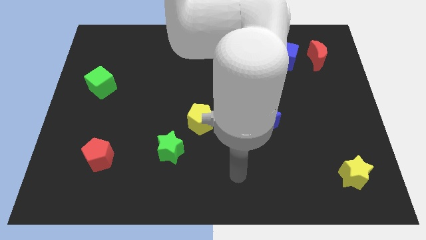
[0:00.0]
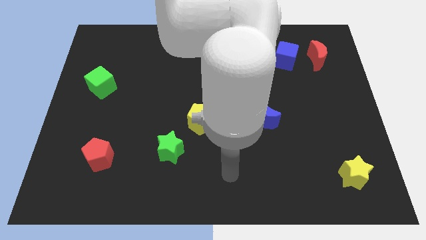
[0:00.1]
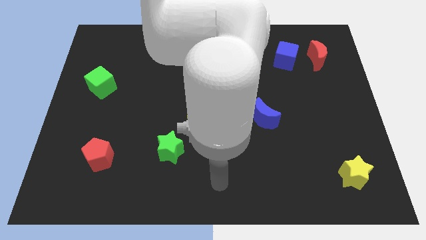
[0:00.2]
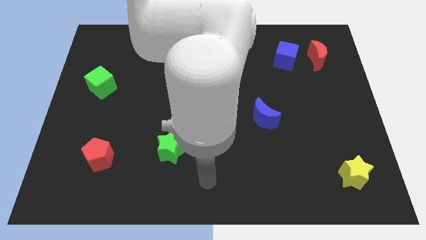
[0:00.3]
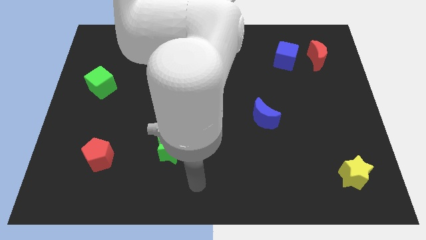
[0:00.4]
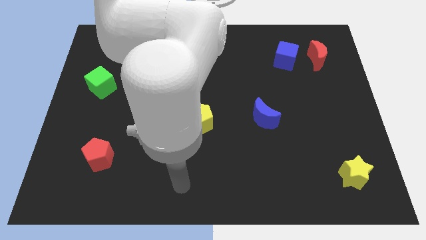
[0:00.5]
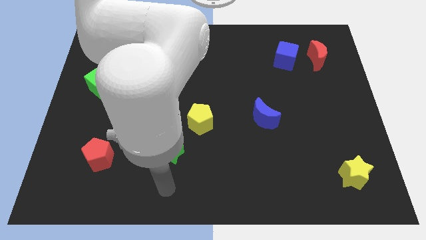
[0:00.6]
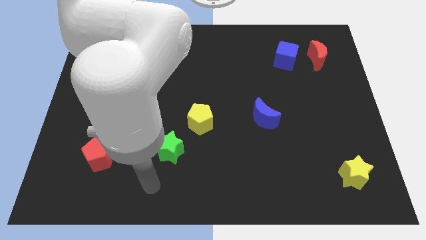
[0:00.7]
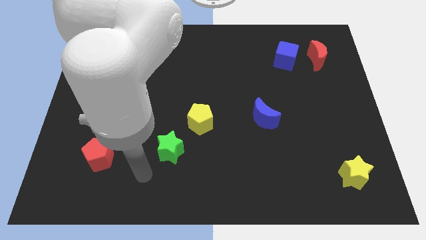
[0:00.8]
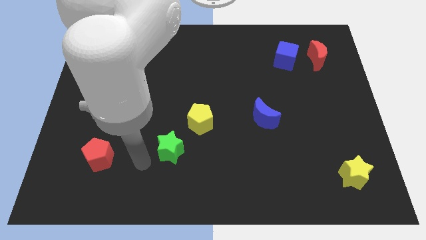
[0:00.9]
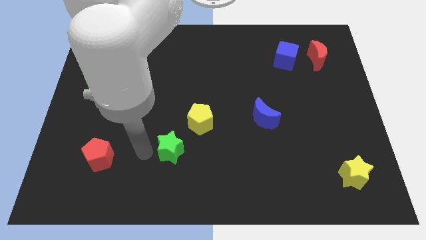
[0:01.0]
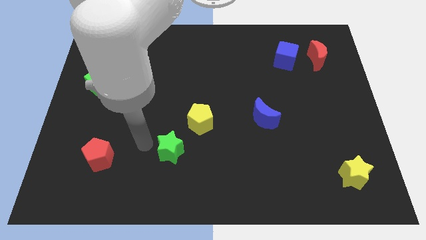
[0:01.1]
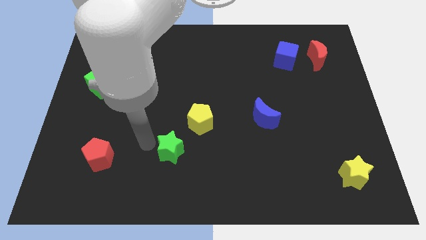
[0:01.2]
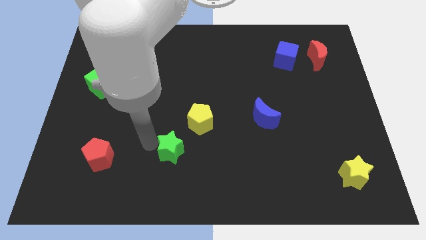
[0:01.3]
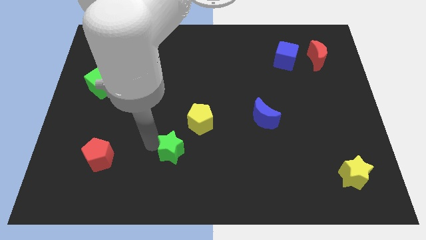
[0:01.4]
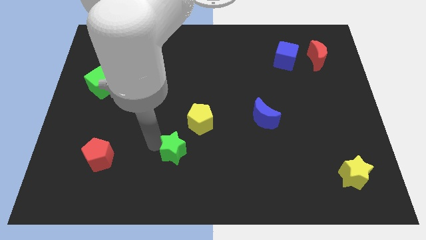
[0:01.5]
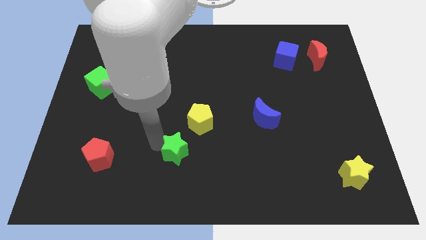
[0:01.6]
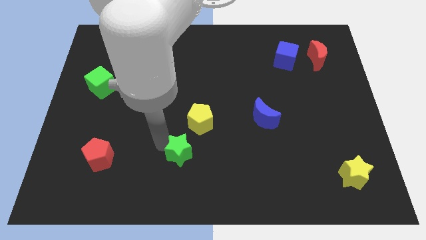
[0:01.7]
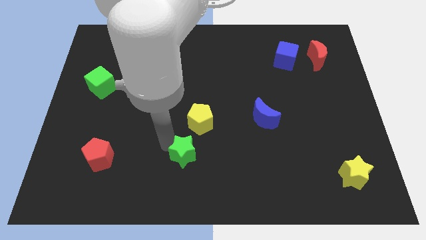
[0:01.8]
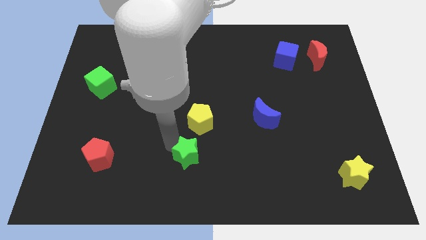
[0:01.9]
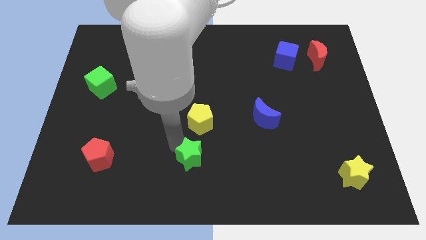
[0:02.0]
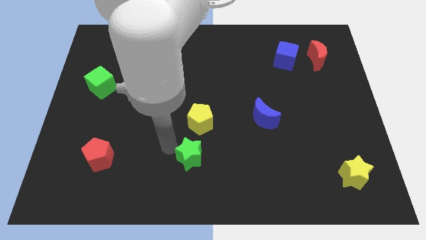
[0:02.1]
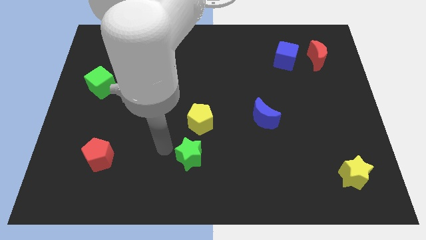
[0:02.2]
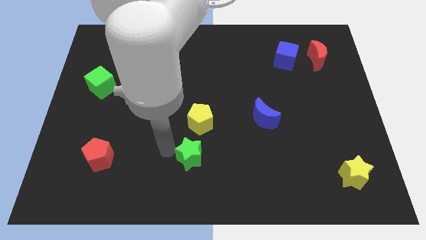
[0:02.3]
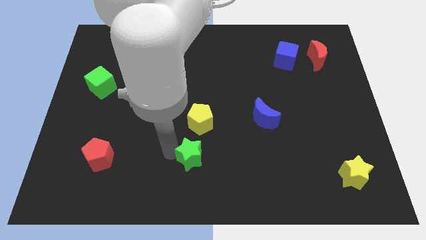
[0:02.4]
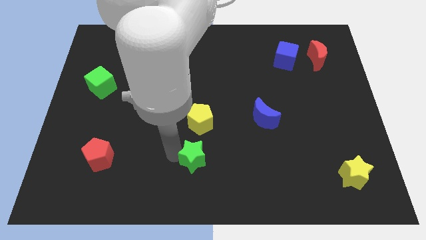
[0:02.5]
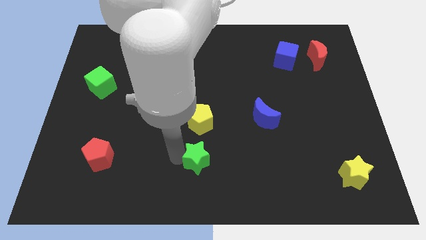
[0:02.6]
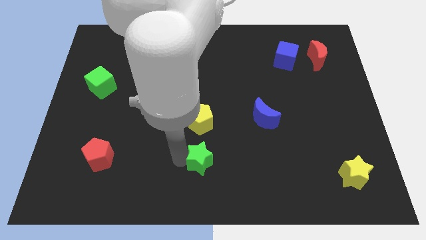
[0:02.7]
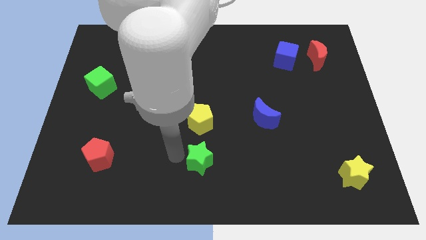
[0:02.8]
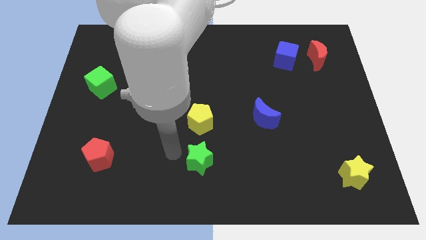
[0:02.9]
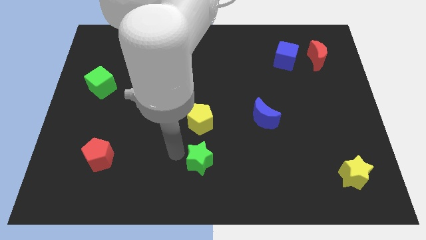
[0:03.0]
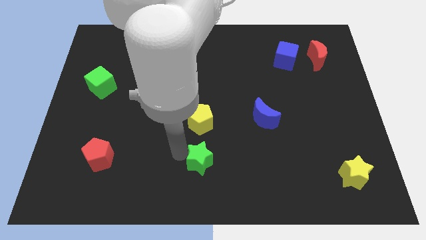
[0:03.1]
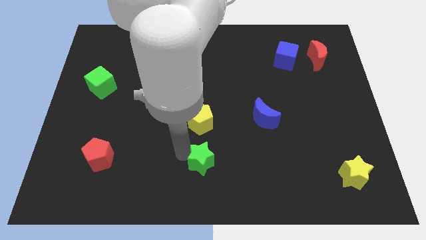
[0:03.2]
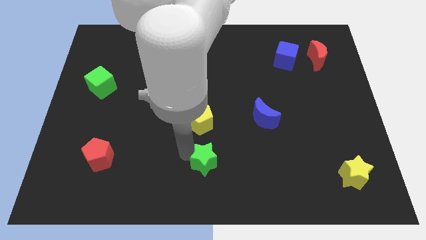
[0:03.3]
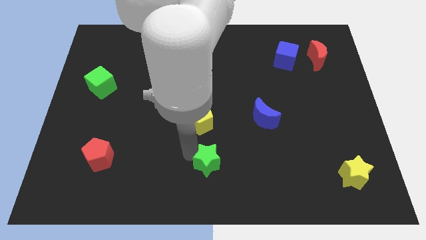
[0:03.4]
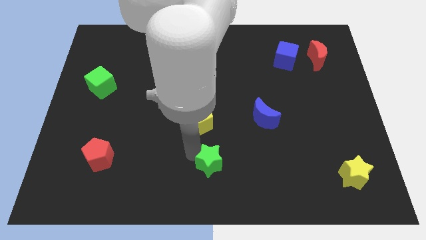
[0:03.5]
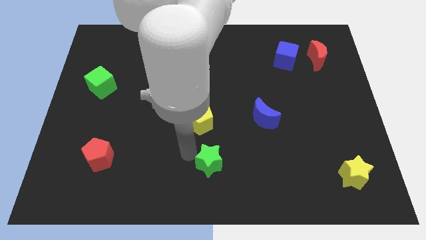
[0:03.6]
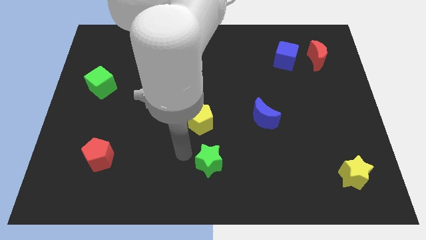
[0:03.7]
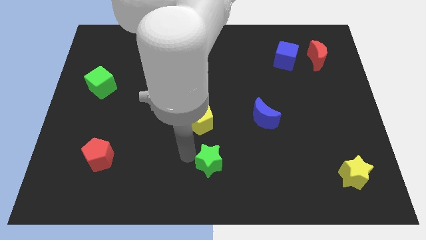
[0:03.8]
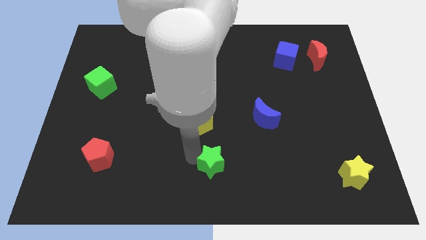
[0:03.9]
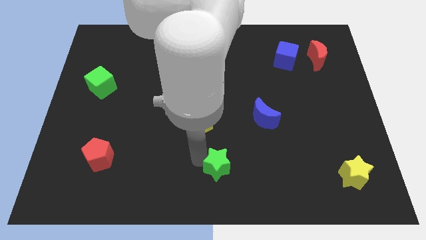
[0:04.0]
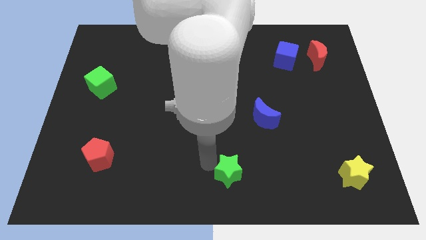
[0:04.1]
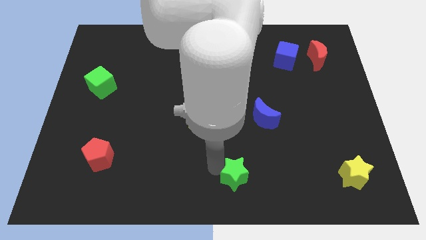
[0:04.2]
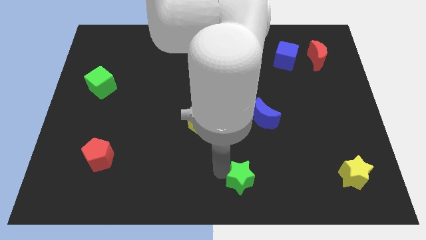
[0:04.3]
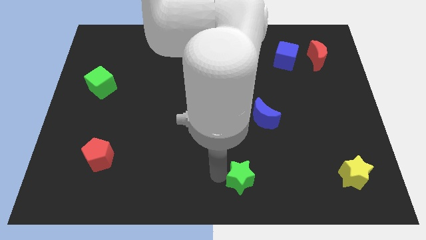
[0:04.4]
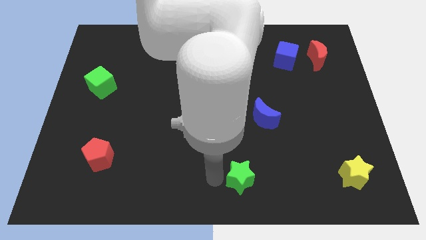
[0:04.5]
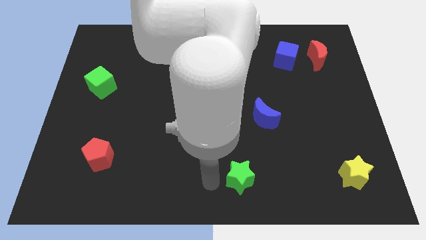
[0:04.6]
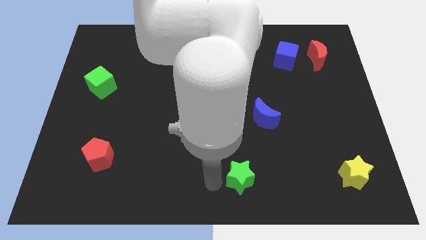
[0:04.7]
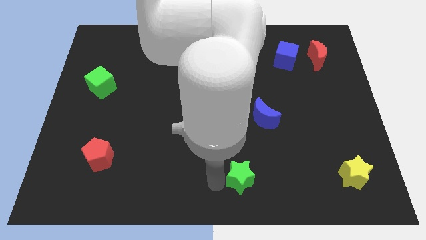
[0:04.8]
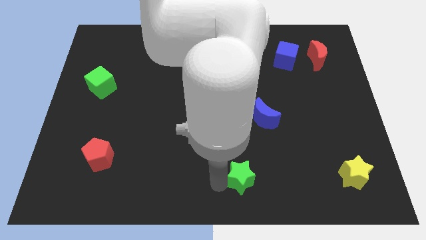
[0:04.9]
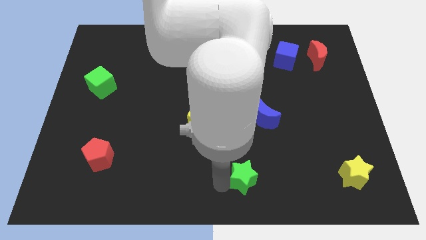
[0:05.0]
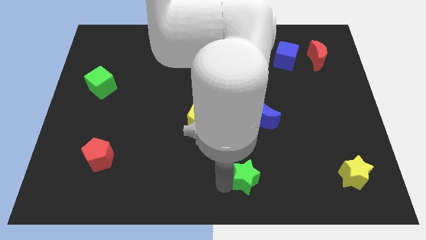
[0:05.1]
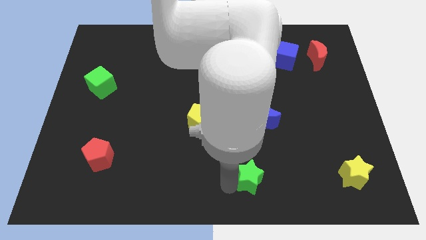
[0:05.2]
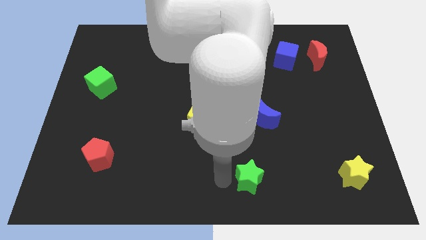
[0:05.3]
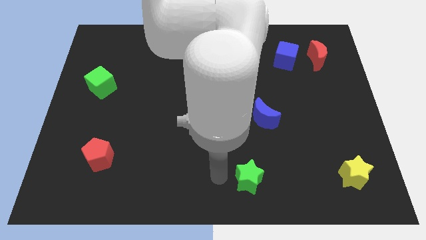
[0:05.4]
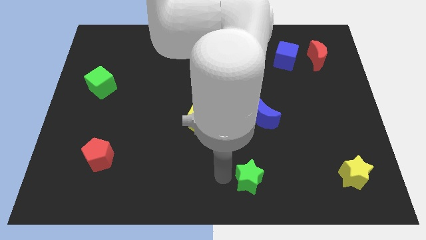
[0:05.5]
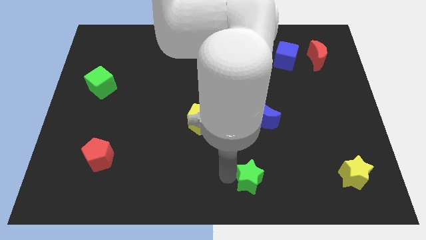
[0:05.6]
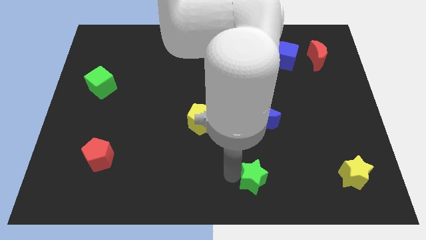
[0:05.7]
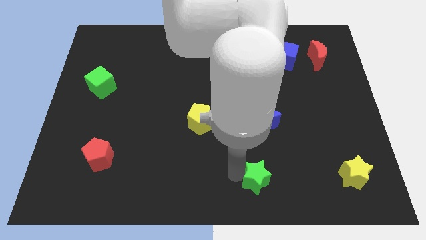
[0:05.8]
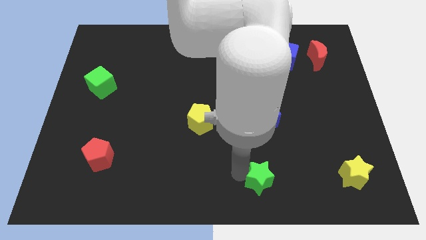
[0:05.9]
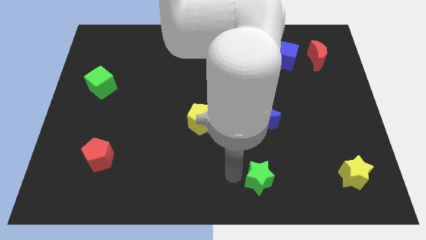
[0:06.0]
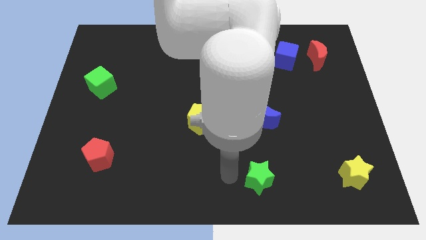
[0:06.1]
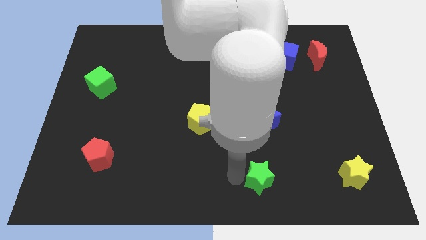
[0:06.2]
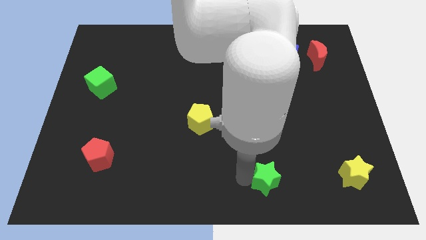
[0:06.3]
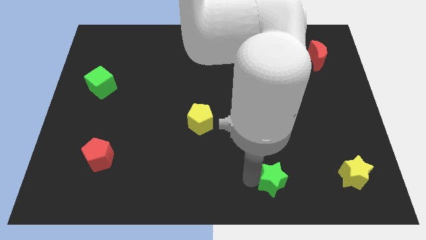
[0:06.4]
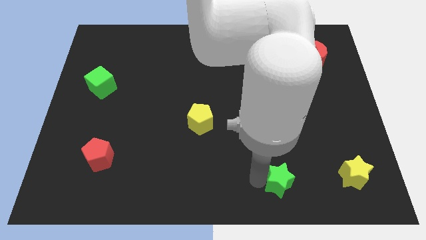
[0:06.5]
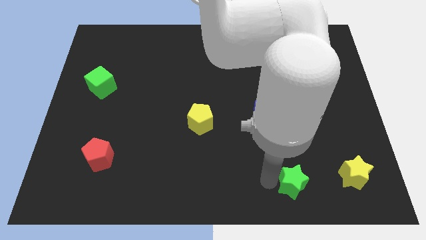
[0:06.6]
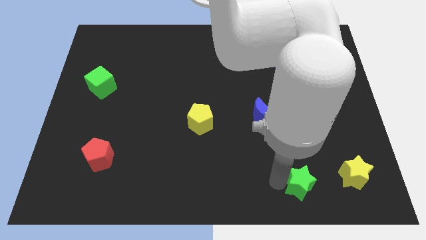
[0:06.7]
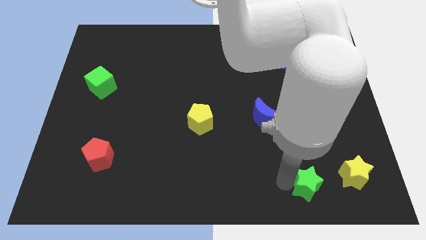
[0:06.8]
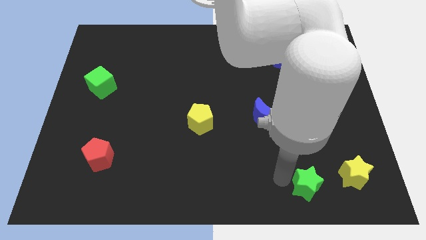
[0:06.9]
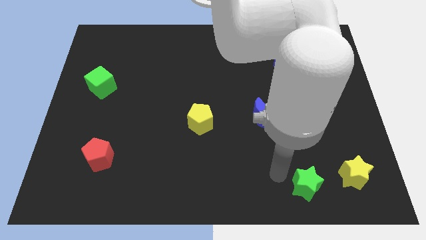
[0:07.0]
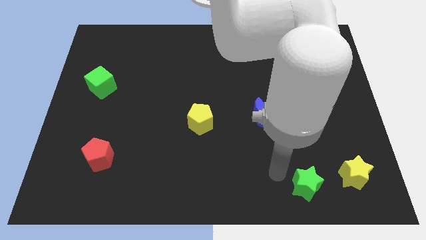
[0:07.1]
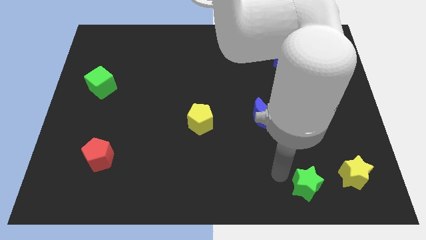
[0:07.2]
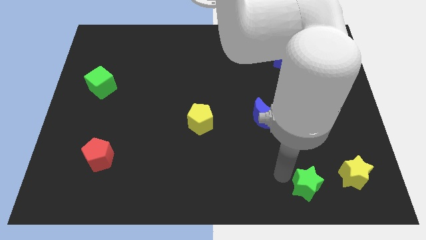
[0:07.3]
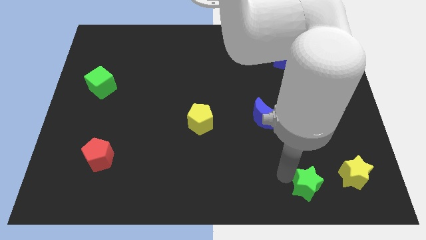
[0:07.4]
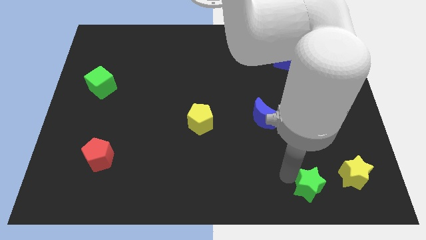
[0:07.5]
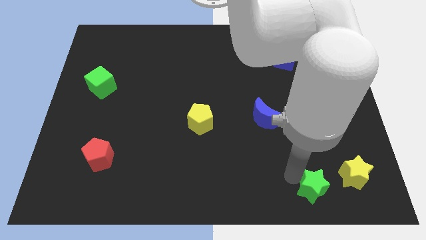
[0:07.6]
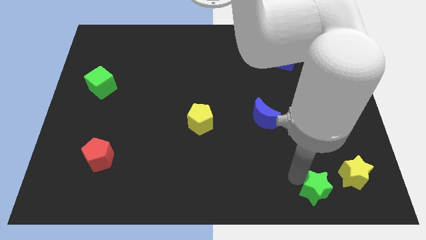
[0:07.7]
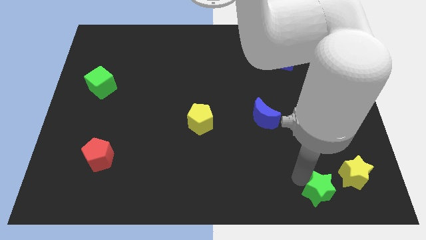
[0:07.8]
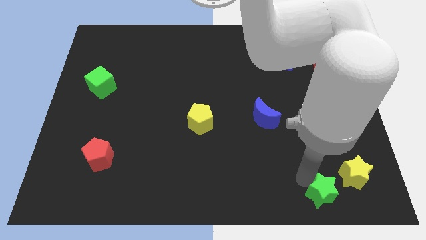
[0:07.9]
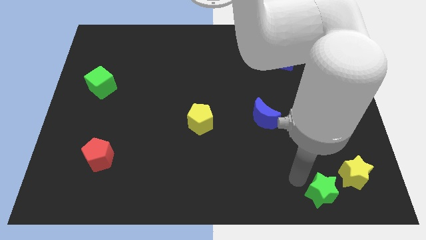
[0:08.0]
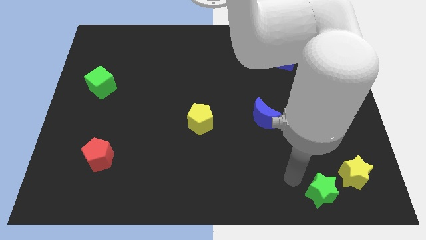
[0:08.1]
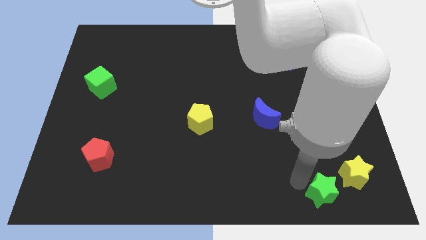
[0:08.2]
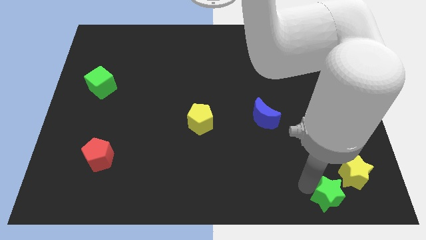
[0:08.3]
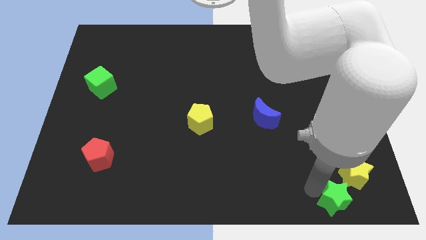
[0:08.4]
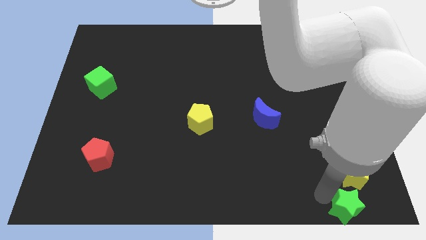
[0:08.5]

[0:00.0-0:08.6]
slide the green star to the lower right corner
